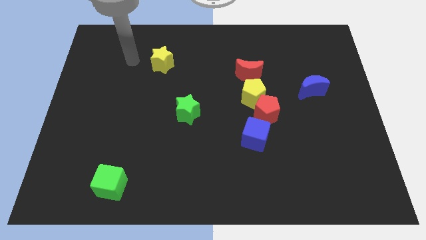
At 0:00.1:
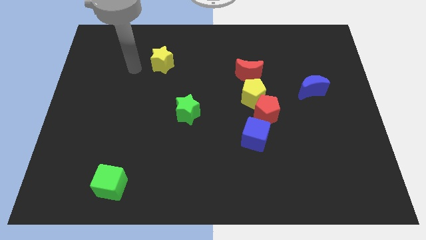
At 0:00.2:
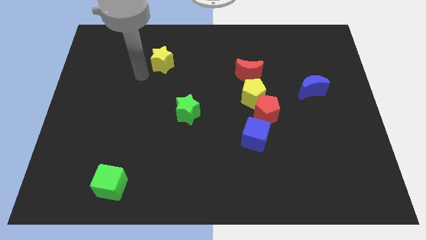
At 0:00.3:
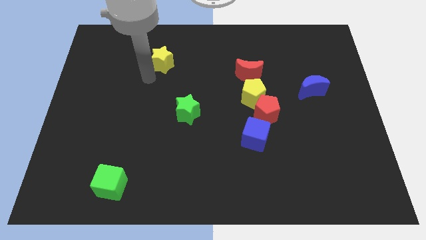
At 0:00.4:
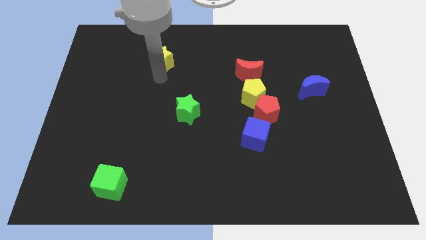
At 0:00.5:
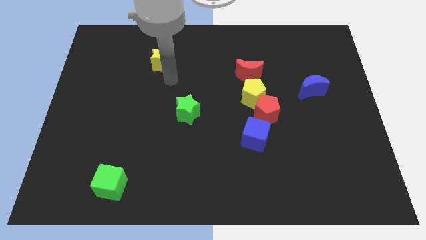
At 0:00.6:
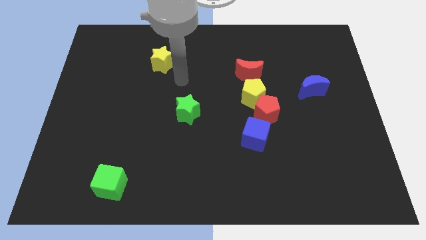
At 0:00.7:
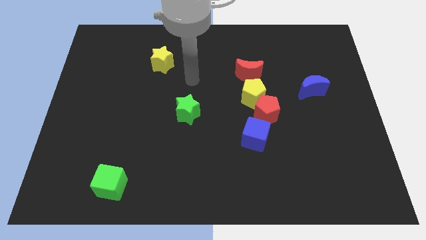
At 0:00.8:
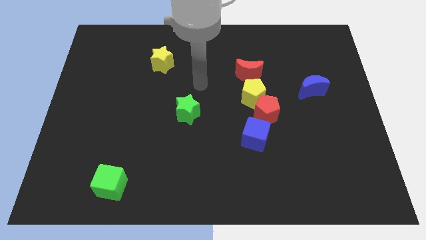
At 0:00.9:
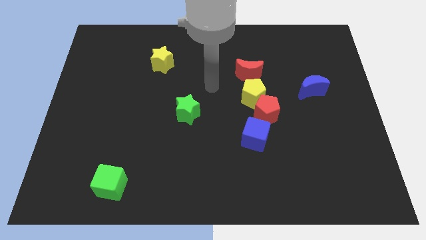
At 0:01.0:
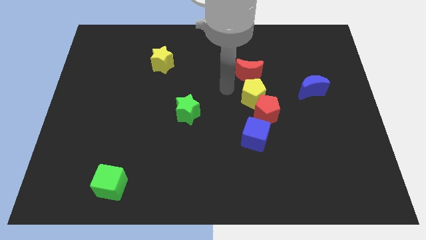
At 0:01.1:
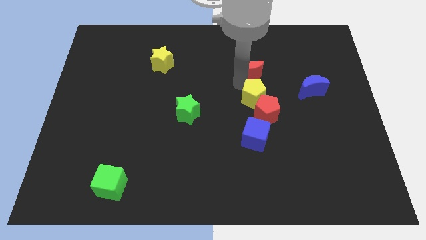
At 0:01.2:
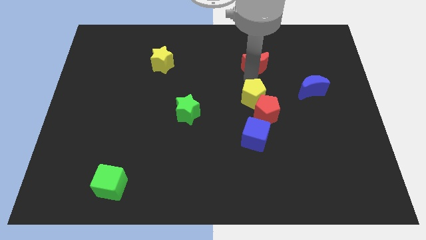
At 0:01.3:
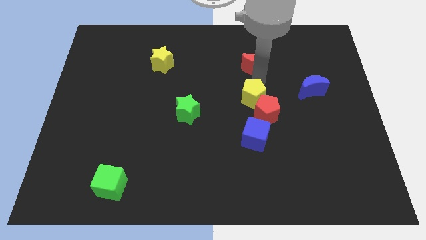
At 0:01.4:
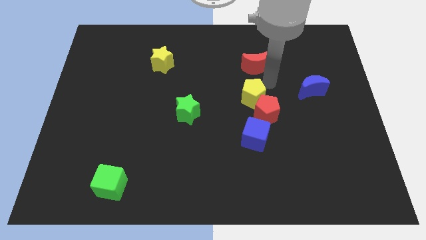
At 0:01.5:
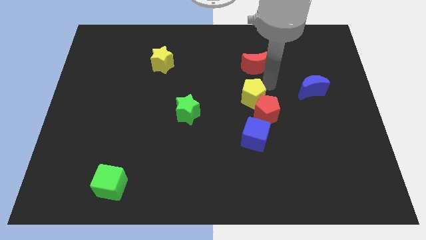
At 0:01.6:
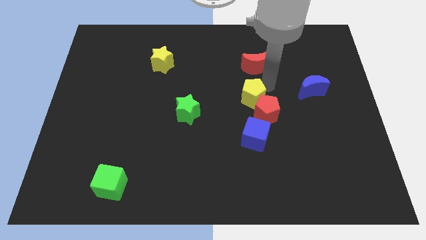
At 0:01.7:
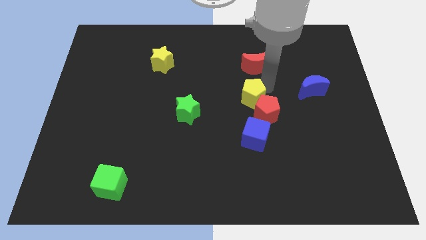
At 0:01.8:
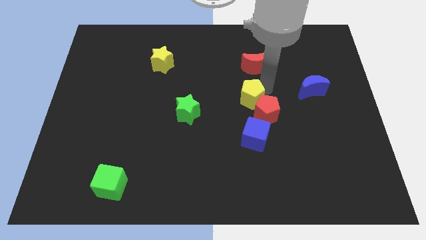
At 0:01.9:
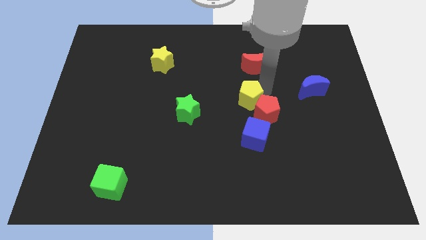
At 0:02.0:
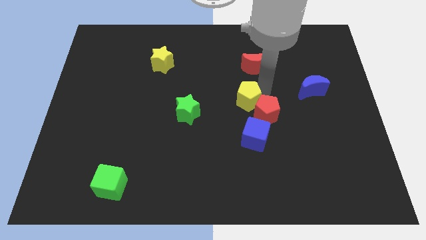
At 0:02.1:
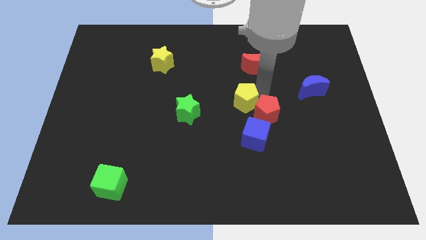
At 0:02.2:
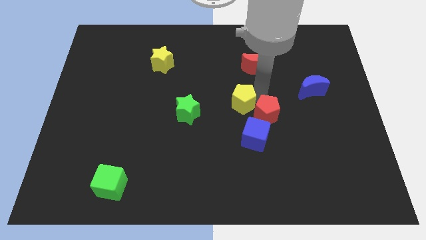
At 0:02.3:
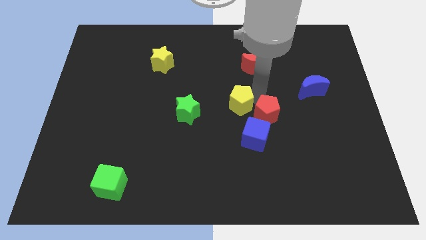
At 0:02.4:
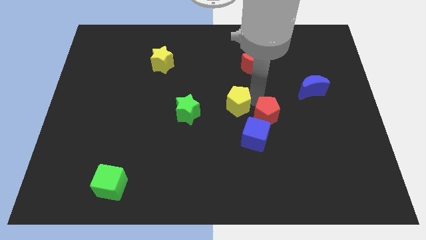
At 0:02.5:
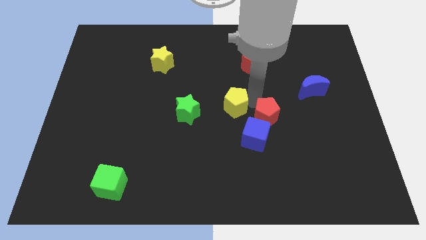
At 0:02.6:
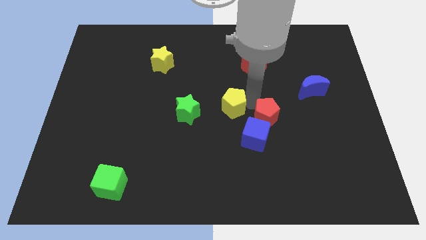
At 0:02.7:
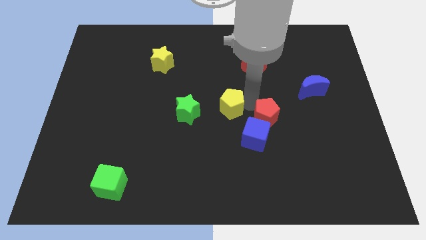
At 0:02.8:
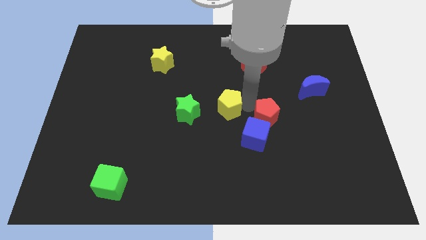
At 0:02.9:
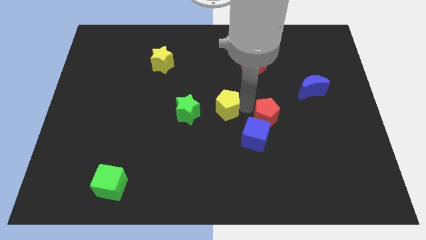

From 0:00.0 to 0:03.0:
pull the yellow pentagon apart from the red pentagon and red moon

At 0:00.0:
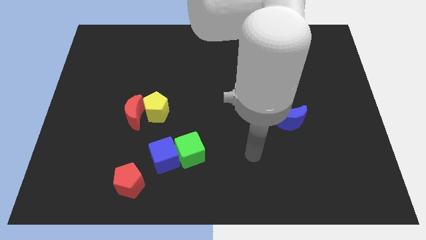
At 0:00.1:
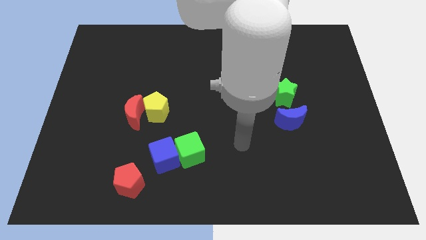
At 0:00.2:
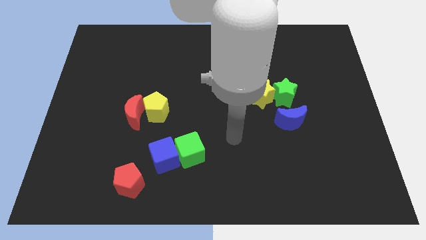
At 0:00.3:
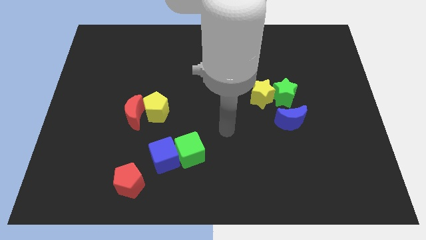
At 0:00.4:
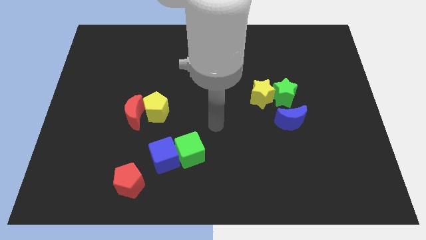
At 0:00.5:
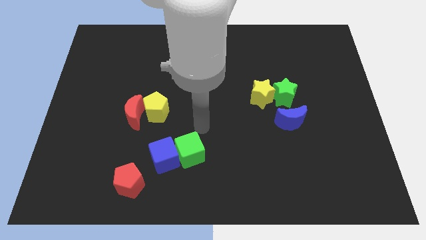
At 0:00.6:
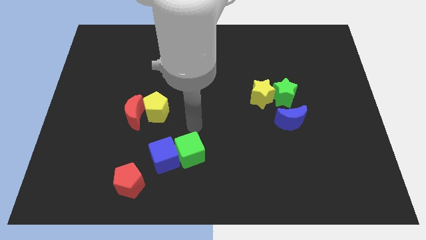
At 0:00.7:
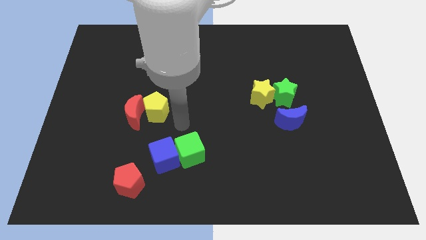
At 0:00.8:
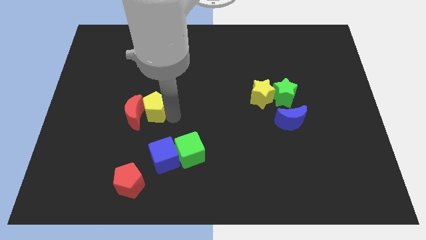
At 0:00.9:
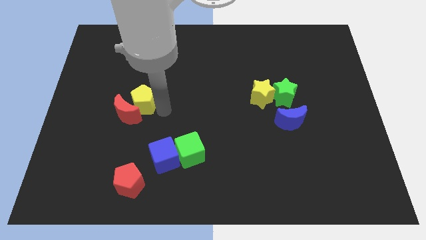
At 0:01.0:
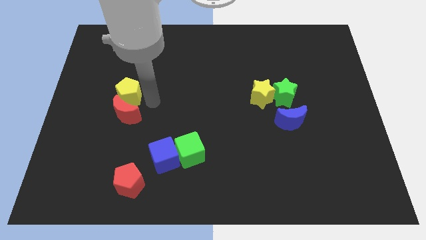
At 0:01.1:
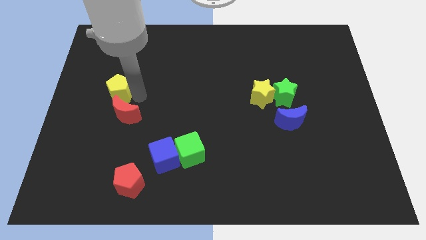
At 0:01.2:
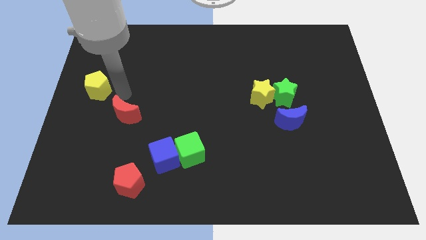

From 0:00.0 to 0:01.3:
pull the red moon apart from the yellow pentagon

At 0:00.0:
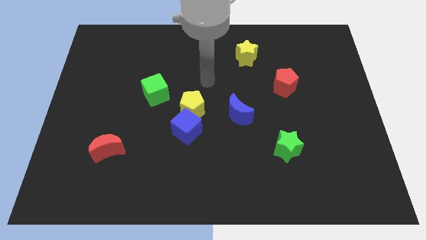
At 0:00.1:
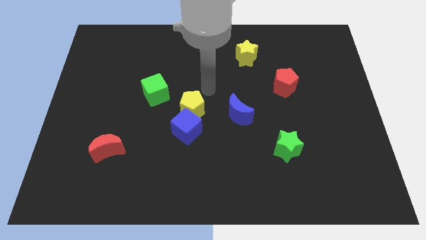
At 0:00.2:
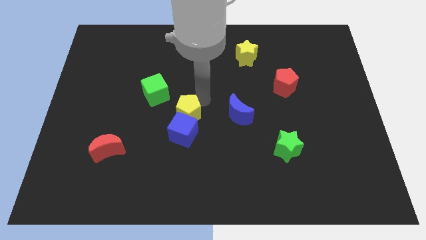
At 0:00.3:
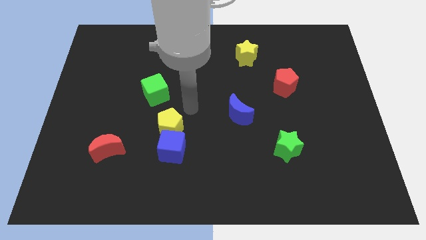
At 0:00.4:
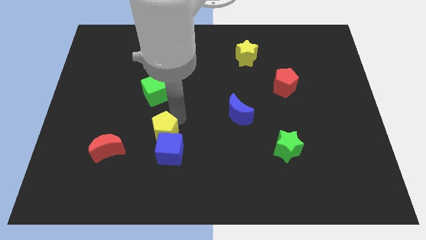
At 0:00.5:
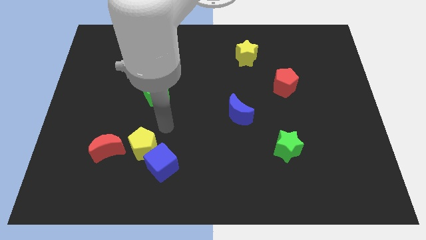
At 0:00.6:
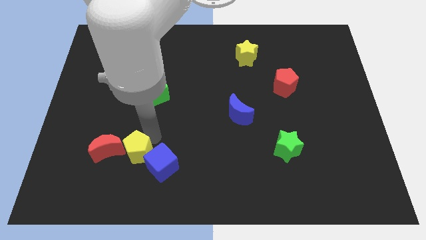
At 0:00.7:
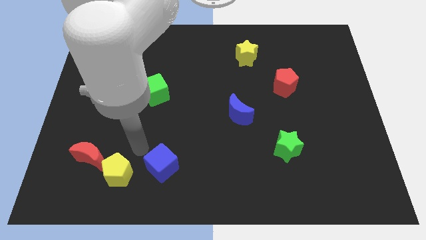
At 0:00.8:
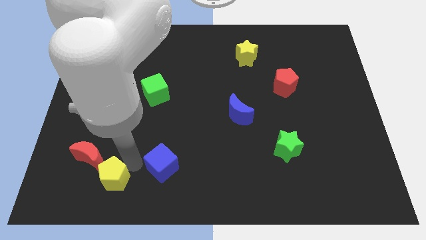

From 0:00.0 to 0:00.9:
pull the blue cube apart from the yellow pentagon

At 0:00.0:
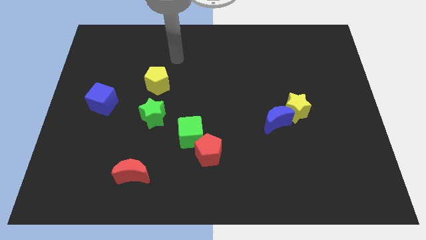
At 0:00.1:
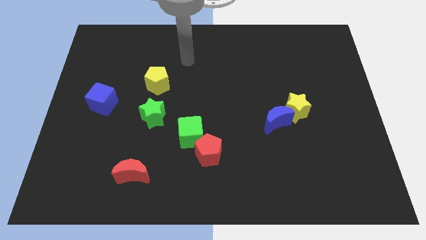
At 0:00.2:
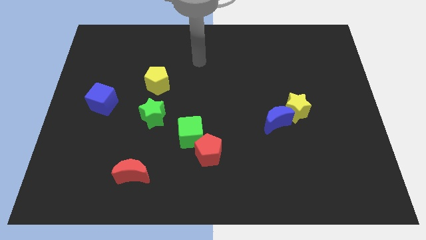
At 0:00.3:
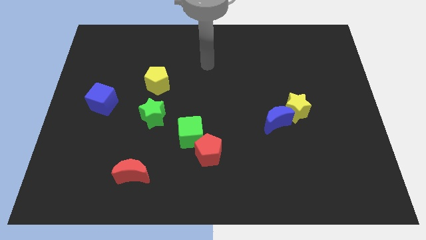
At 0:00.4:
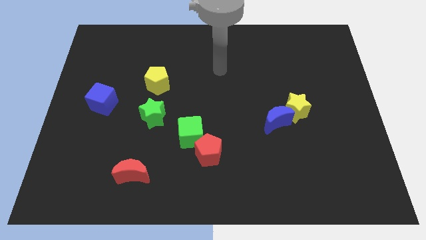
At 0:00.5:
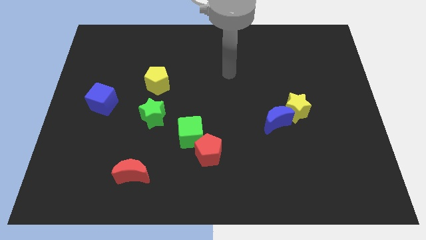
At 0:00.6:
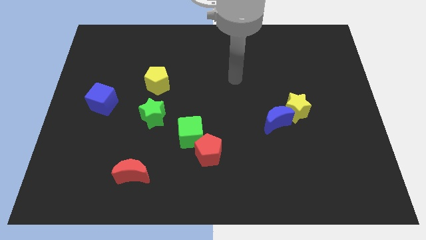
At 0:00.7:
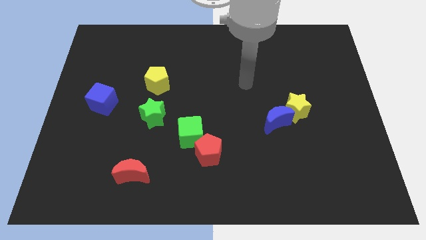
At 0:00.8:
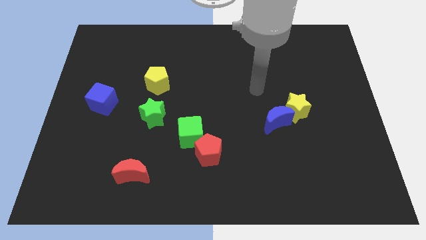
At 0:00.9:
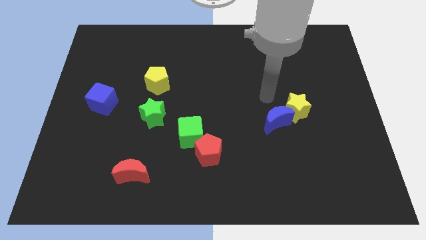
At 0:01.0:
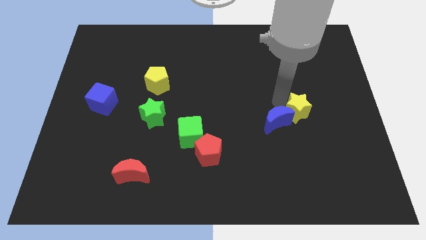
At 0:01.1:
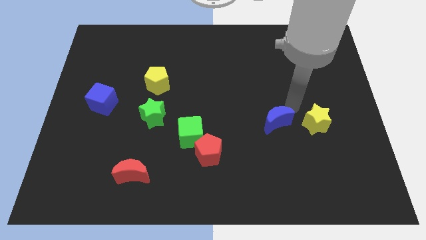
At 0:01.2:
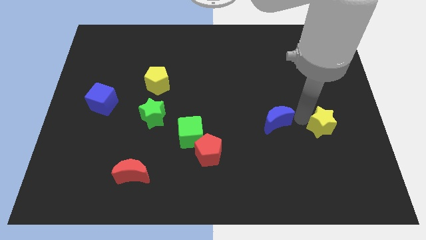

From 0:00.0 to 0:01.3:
pull the blue moon apart from the yellow star

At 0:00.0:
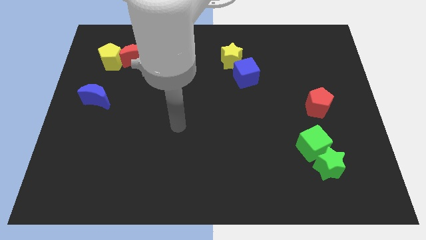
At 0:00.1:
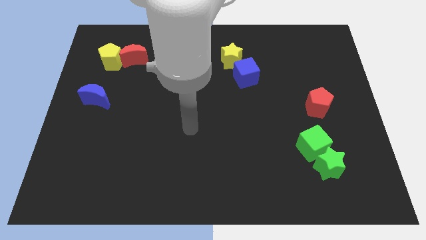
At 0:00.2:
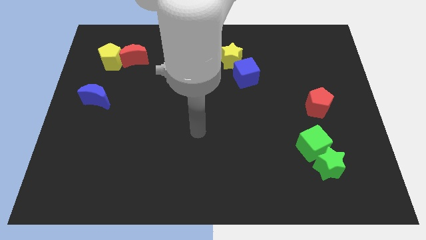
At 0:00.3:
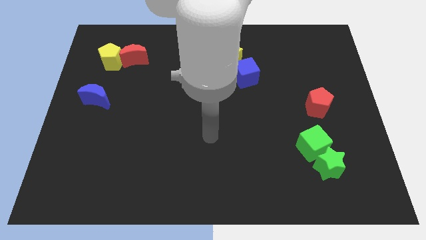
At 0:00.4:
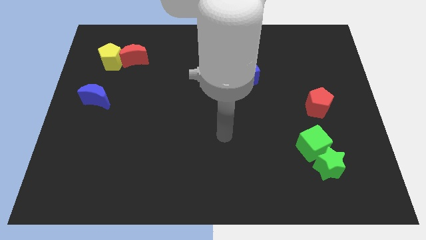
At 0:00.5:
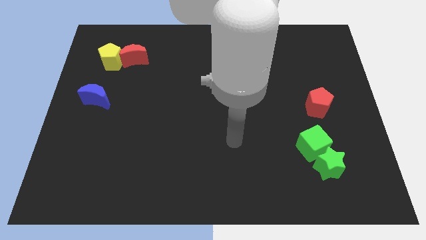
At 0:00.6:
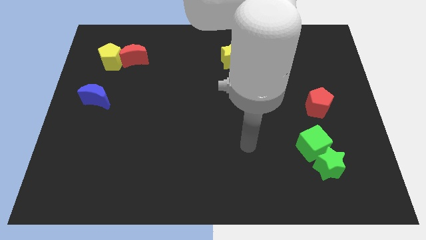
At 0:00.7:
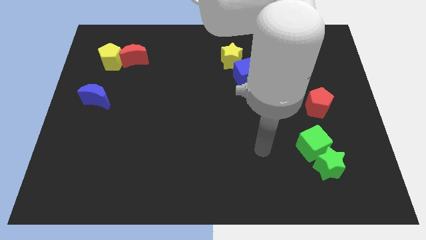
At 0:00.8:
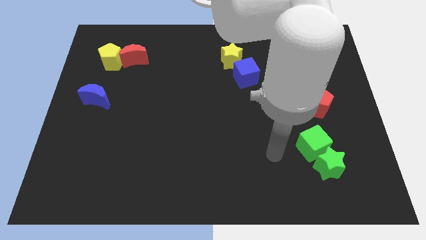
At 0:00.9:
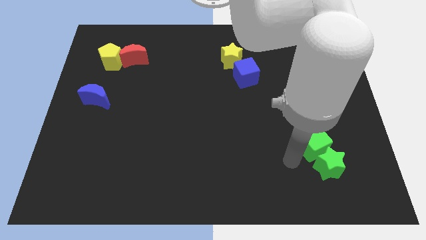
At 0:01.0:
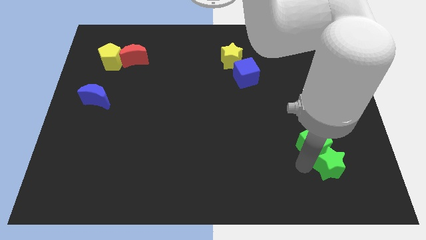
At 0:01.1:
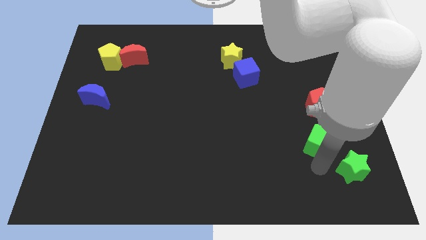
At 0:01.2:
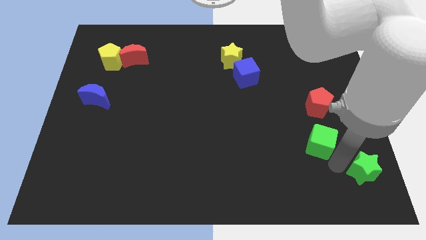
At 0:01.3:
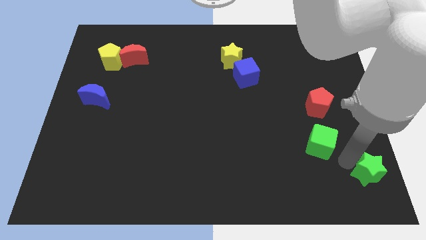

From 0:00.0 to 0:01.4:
pull the green cube apart from the green star

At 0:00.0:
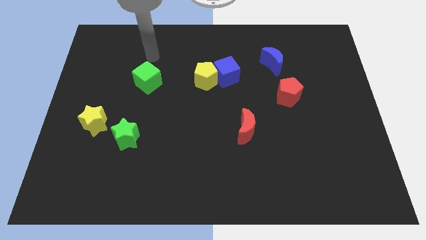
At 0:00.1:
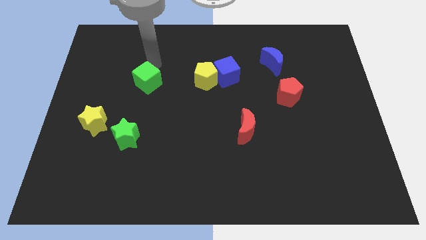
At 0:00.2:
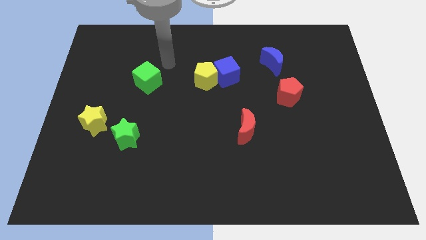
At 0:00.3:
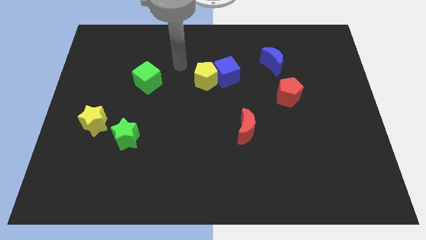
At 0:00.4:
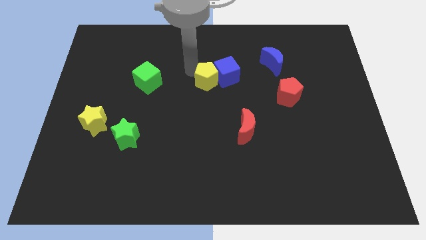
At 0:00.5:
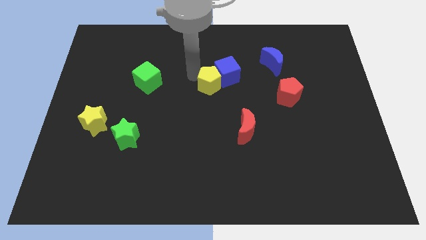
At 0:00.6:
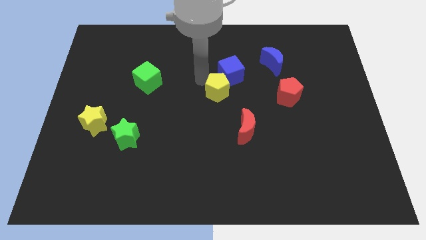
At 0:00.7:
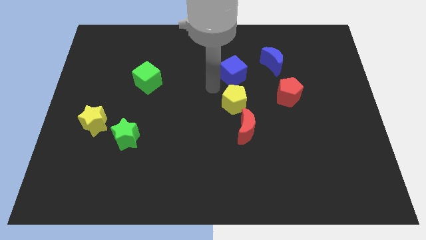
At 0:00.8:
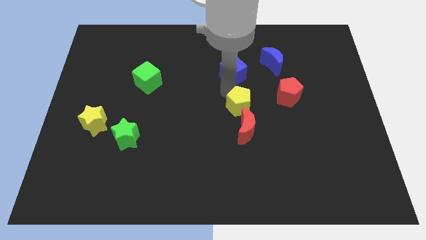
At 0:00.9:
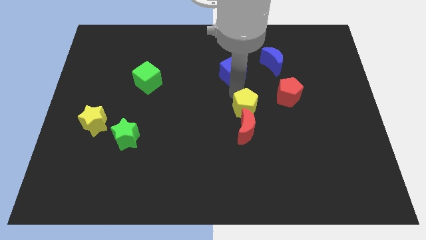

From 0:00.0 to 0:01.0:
separate the blue cube from the yellow pentagon

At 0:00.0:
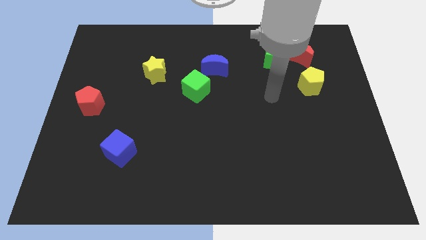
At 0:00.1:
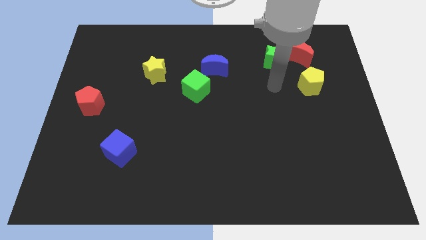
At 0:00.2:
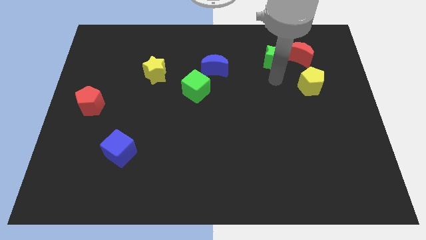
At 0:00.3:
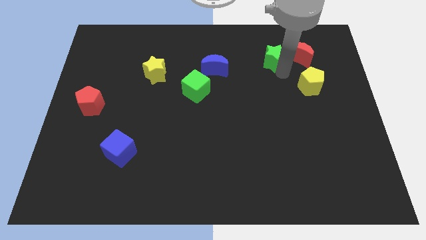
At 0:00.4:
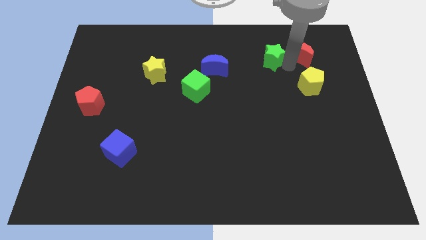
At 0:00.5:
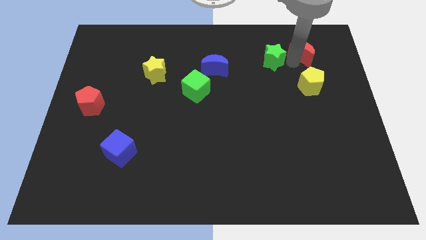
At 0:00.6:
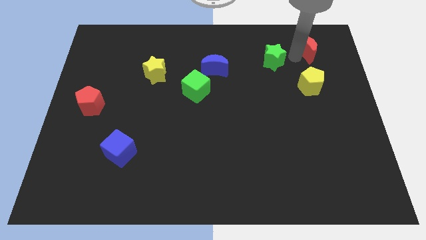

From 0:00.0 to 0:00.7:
move the green star away from the red moon
